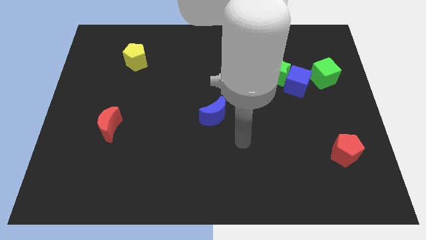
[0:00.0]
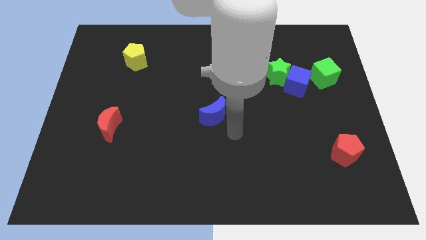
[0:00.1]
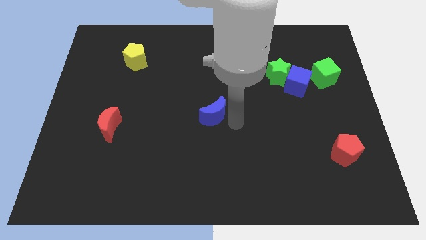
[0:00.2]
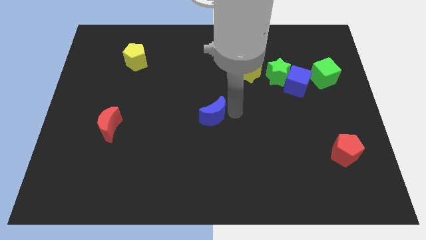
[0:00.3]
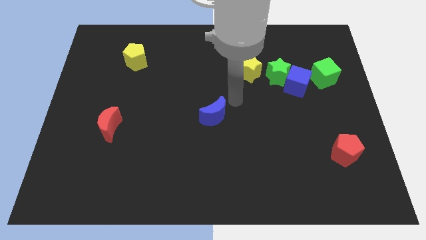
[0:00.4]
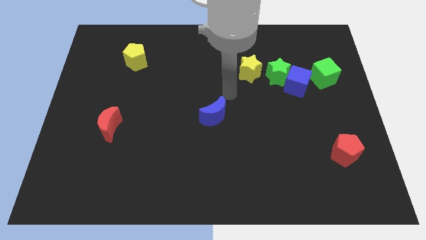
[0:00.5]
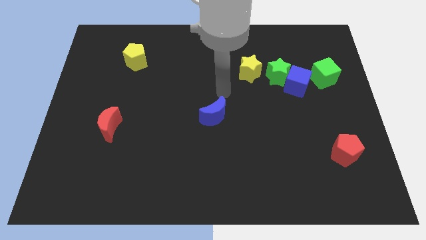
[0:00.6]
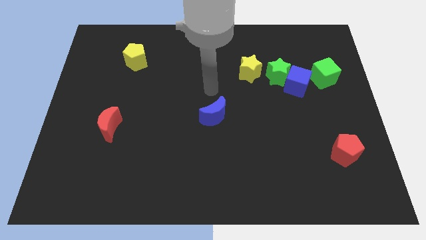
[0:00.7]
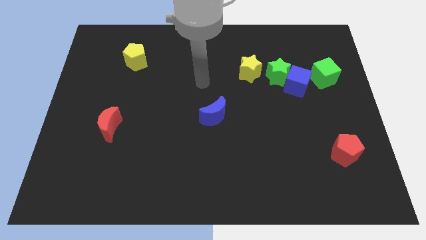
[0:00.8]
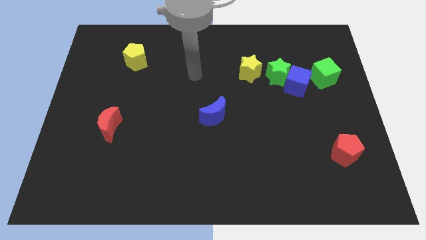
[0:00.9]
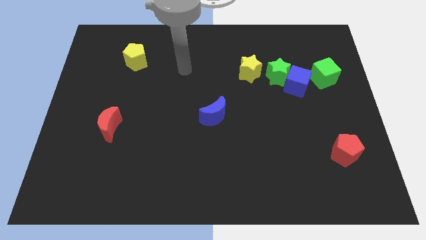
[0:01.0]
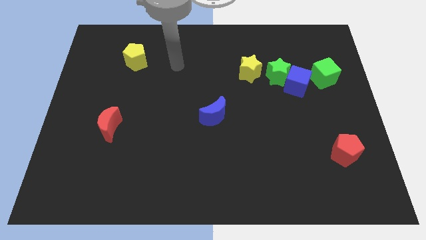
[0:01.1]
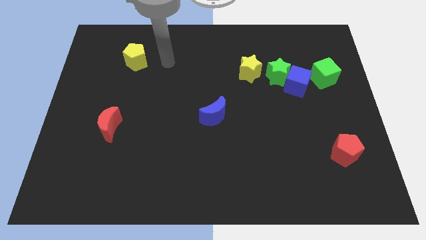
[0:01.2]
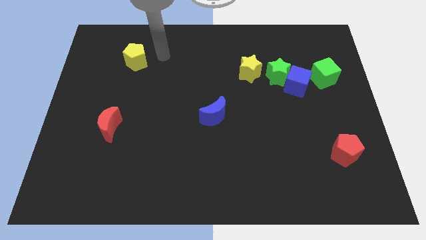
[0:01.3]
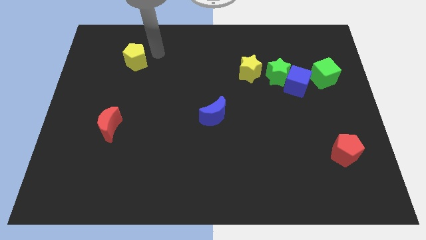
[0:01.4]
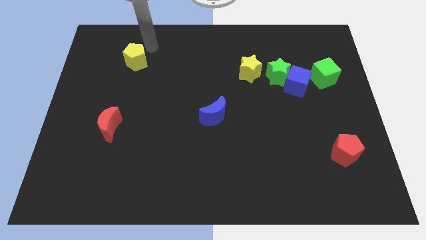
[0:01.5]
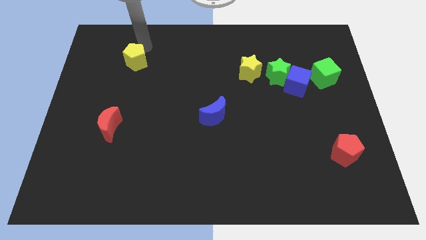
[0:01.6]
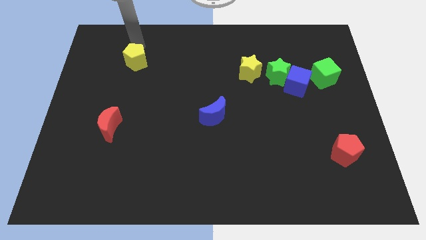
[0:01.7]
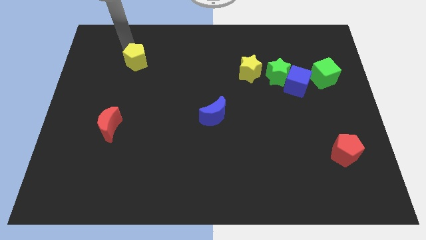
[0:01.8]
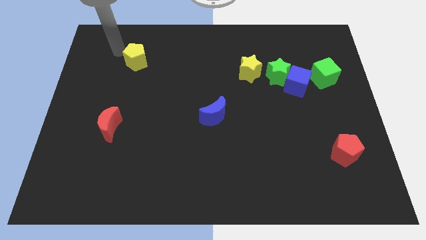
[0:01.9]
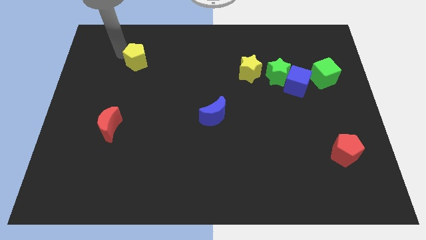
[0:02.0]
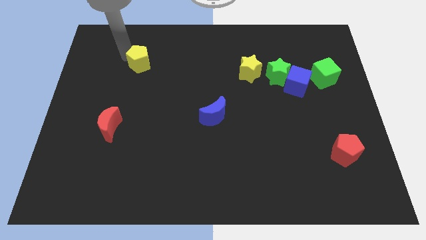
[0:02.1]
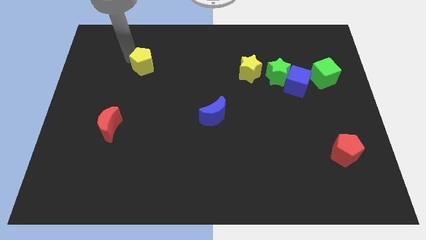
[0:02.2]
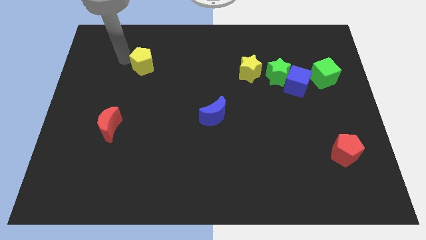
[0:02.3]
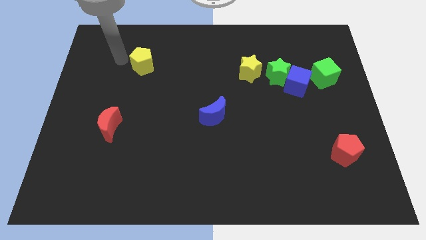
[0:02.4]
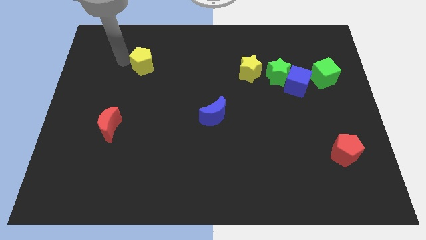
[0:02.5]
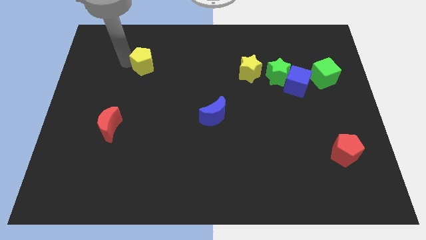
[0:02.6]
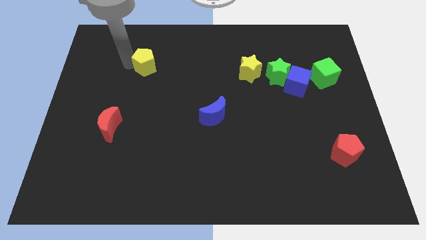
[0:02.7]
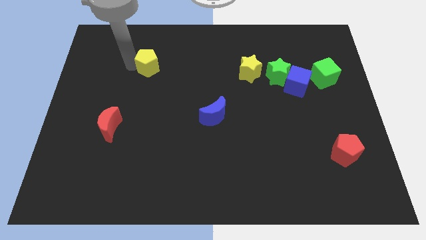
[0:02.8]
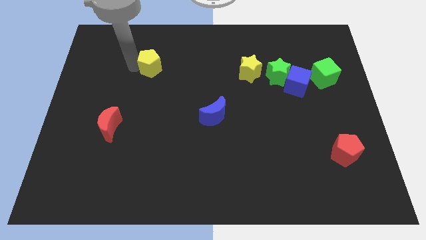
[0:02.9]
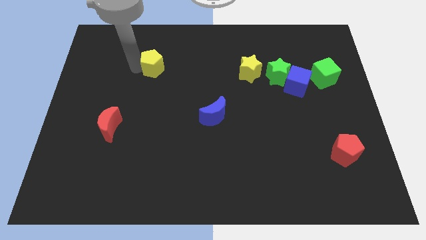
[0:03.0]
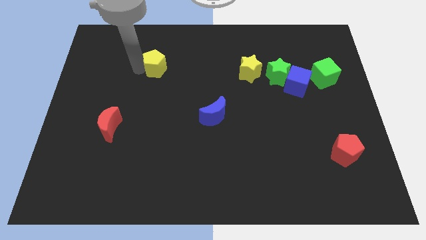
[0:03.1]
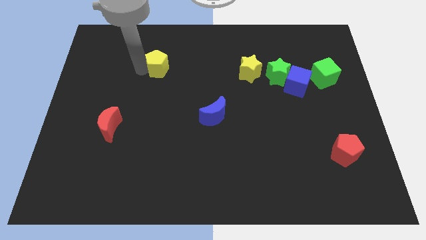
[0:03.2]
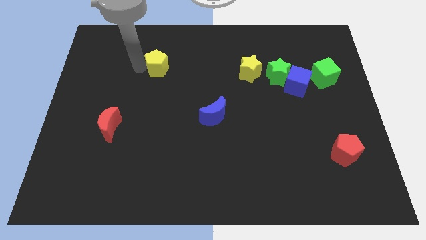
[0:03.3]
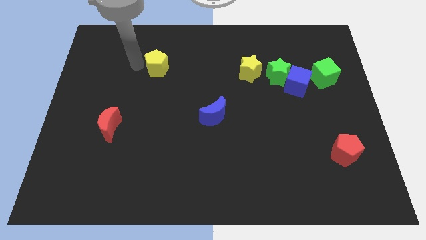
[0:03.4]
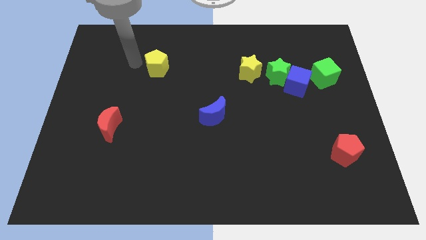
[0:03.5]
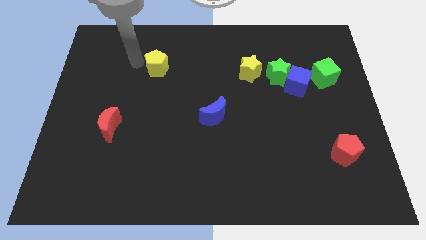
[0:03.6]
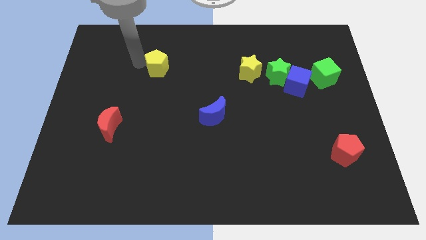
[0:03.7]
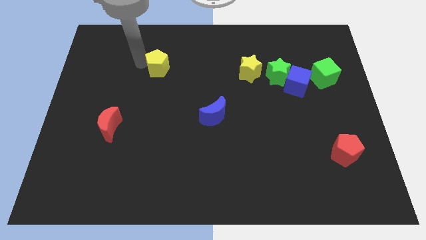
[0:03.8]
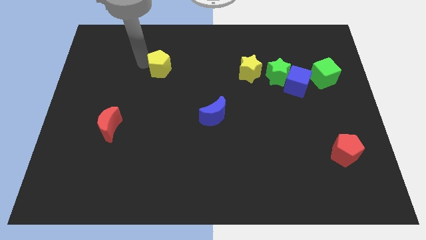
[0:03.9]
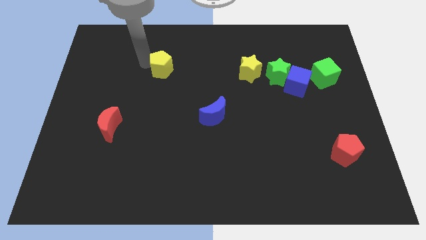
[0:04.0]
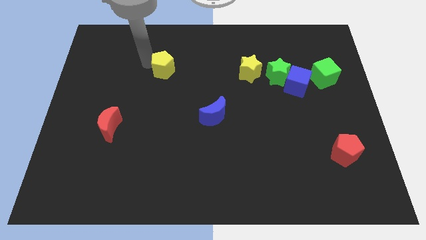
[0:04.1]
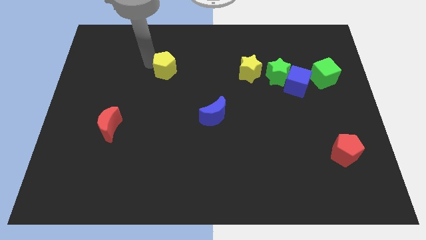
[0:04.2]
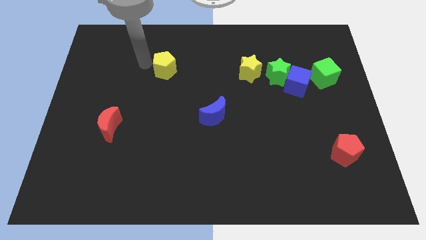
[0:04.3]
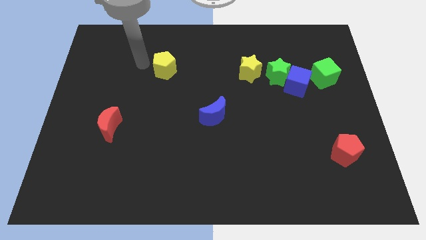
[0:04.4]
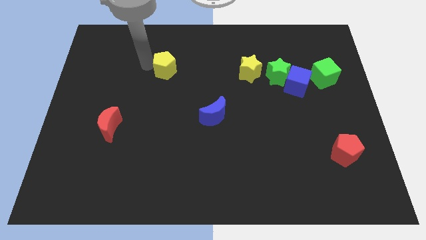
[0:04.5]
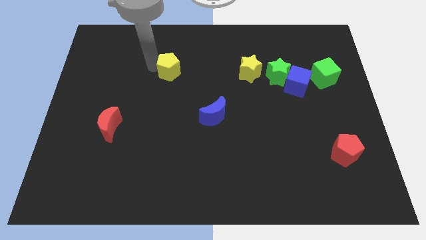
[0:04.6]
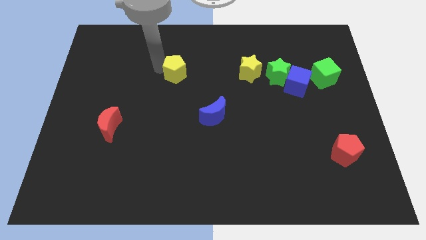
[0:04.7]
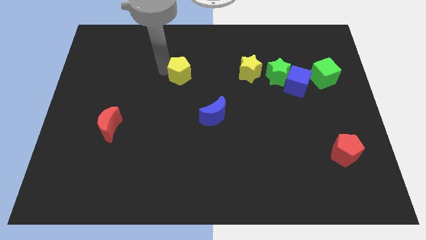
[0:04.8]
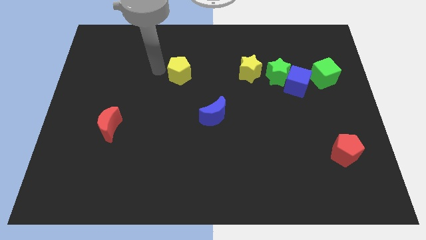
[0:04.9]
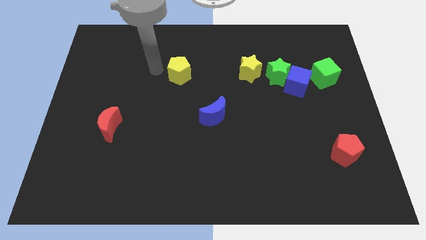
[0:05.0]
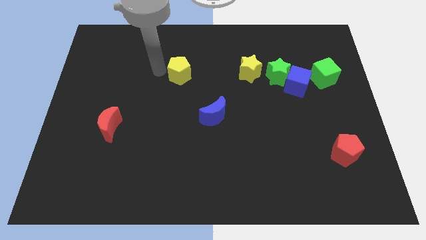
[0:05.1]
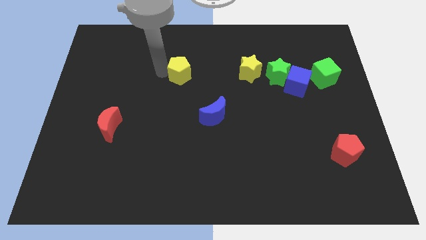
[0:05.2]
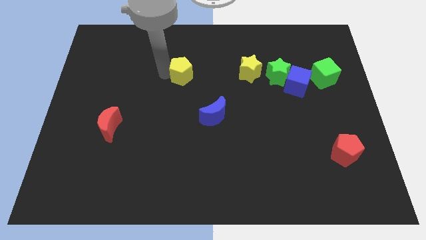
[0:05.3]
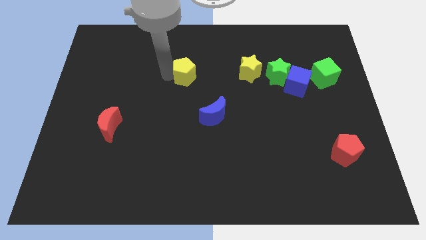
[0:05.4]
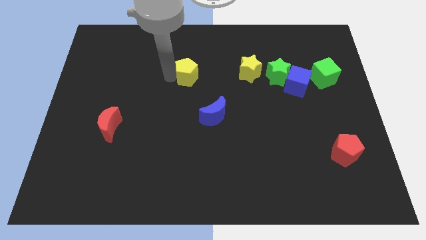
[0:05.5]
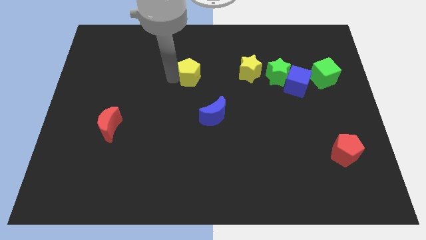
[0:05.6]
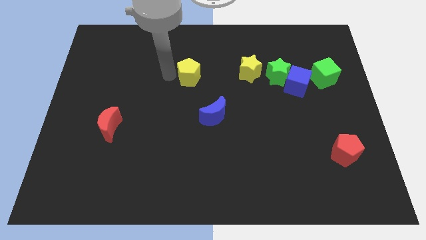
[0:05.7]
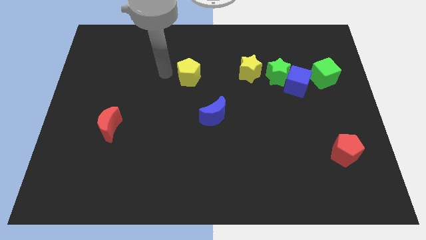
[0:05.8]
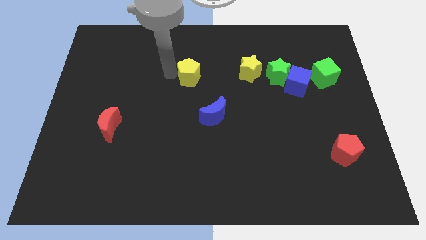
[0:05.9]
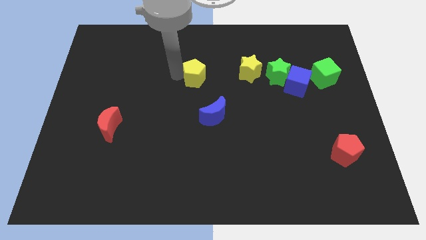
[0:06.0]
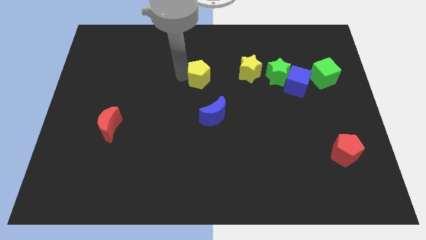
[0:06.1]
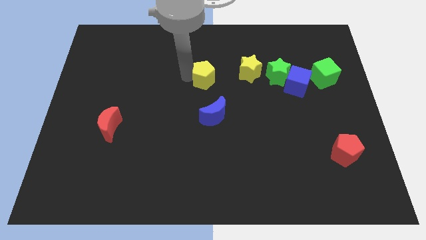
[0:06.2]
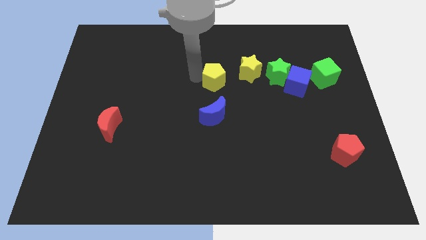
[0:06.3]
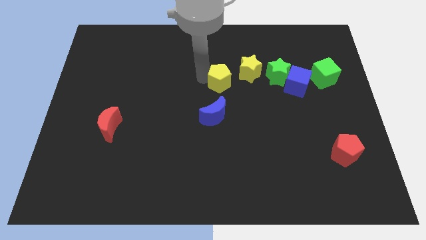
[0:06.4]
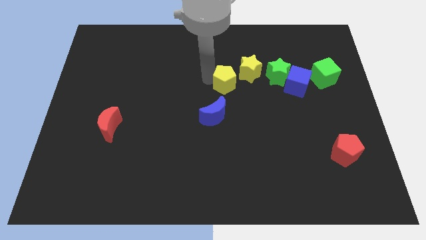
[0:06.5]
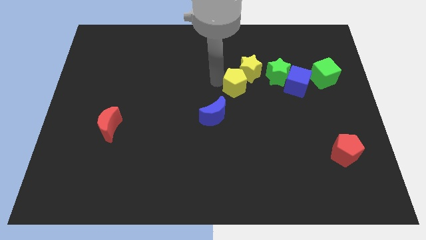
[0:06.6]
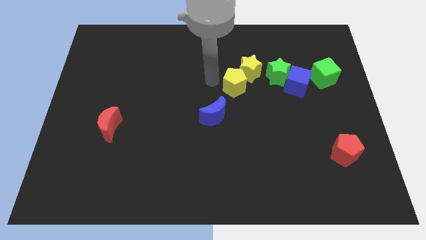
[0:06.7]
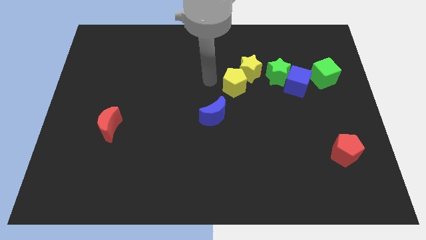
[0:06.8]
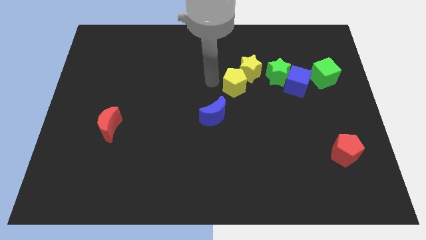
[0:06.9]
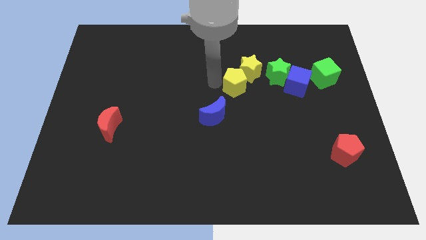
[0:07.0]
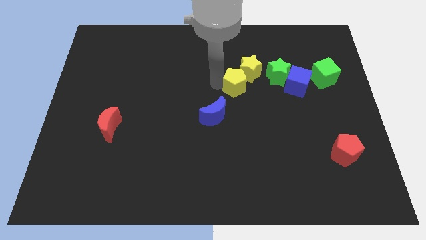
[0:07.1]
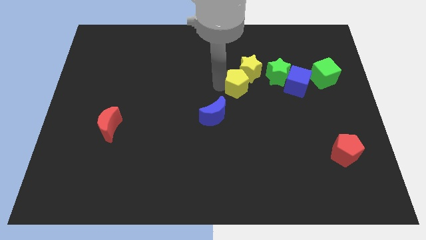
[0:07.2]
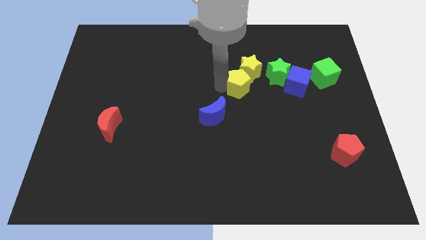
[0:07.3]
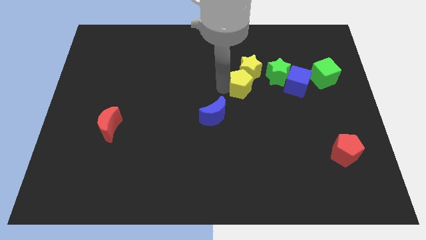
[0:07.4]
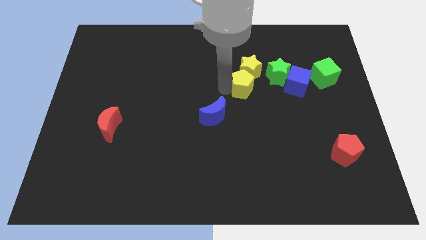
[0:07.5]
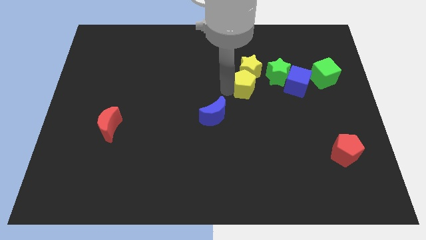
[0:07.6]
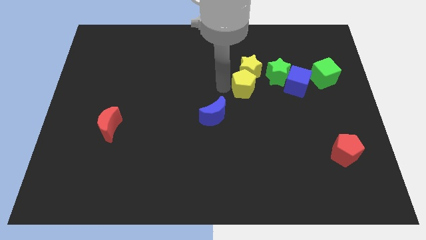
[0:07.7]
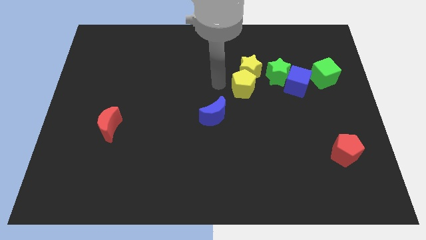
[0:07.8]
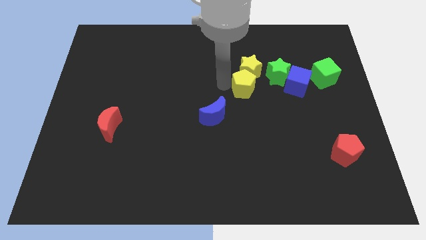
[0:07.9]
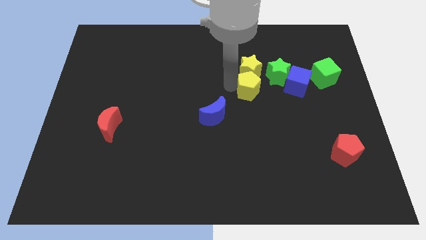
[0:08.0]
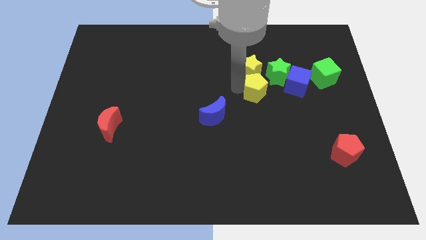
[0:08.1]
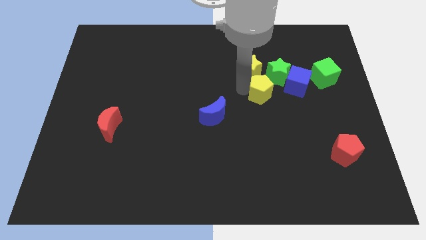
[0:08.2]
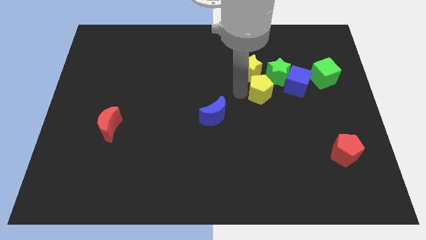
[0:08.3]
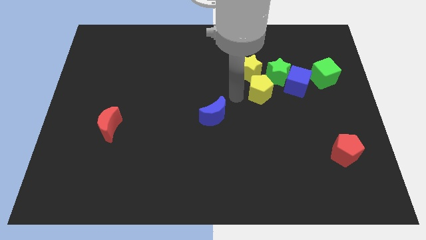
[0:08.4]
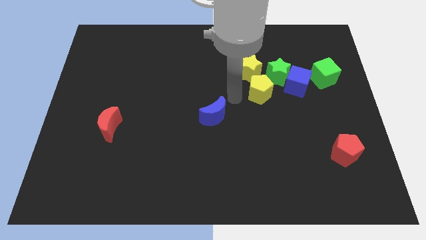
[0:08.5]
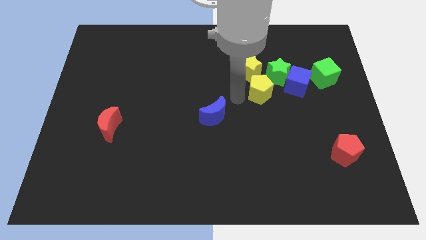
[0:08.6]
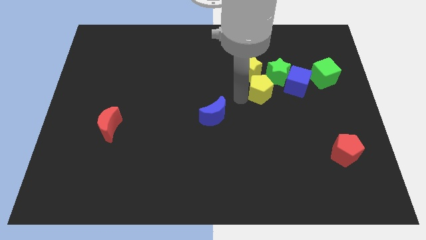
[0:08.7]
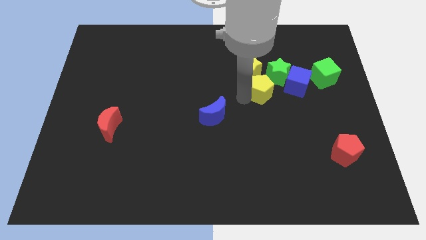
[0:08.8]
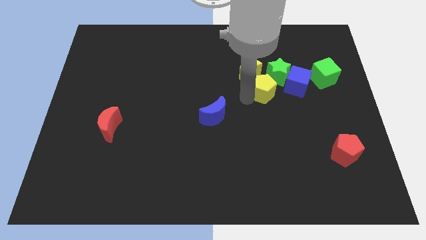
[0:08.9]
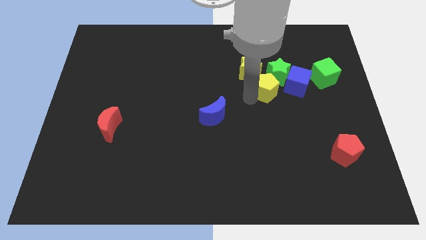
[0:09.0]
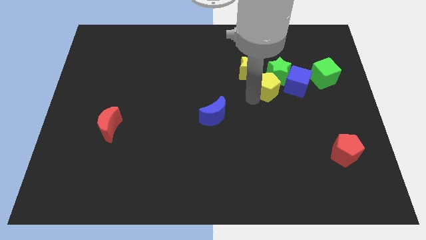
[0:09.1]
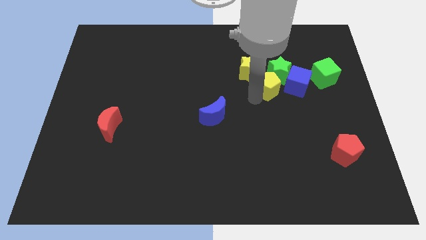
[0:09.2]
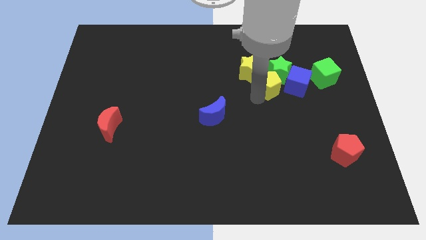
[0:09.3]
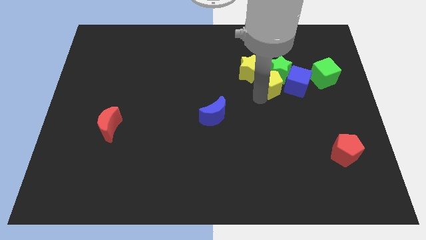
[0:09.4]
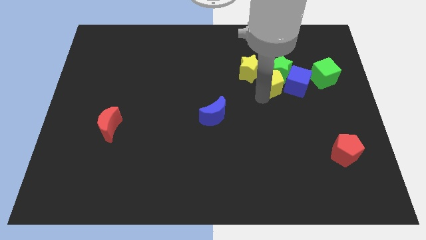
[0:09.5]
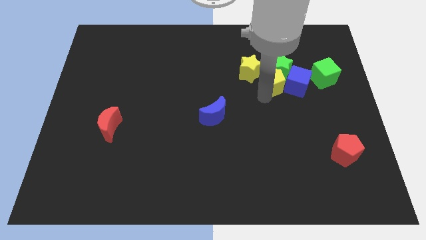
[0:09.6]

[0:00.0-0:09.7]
push the yellow pentagon next to the blue cube
